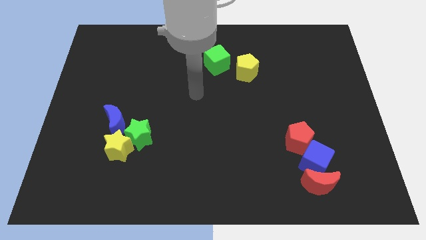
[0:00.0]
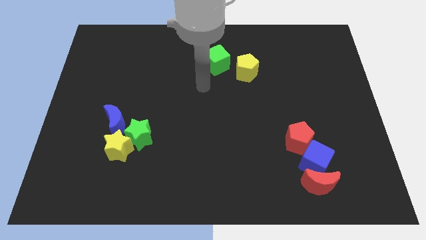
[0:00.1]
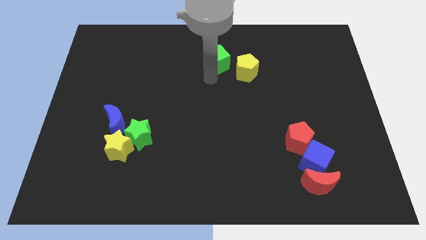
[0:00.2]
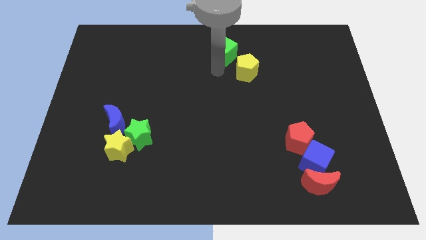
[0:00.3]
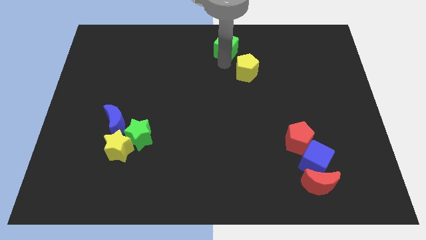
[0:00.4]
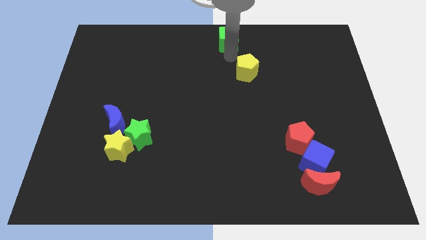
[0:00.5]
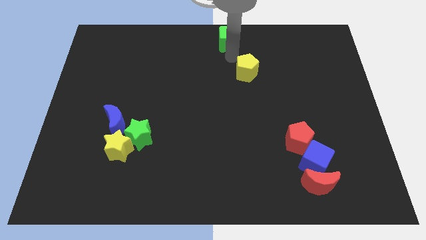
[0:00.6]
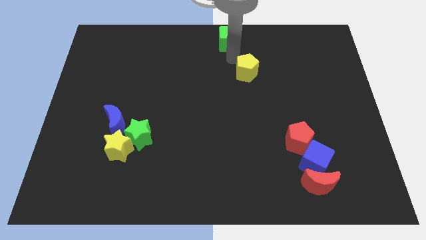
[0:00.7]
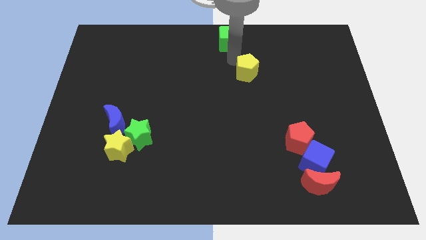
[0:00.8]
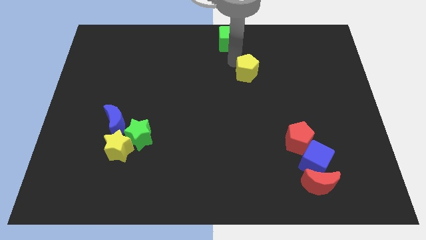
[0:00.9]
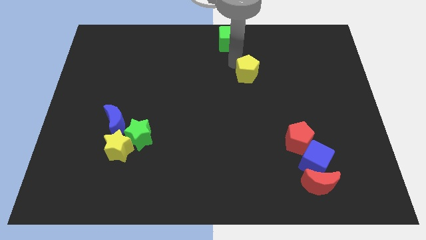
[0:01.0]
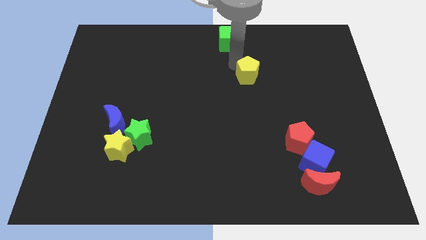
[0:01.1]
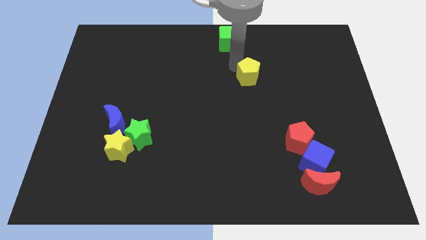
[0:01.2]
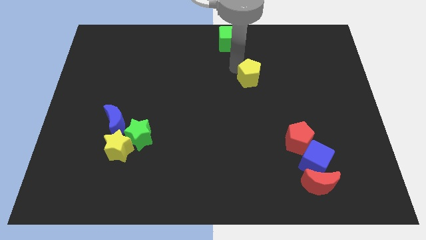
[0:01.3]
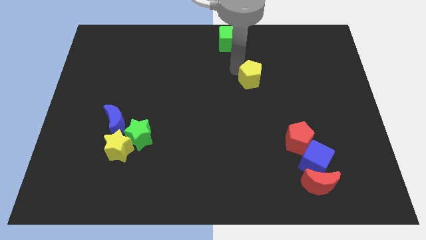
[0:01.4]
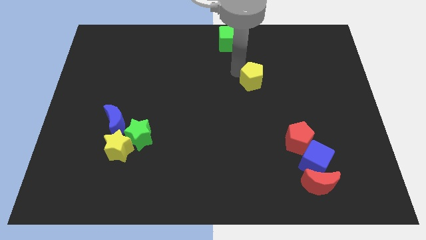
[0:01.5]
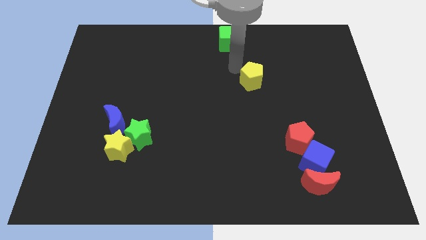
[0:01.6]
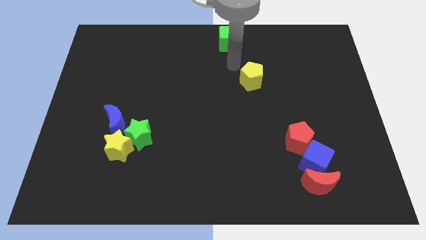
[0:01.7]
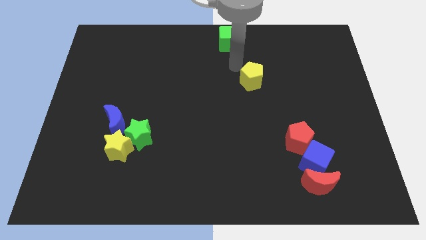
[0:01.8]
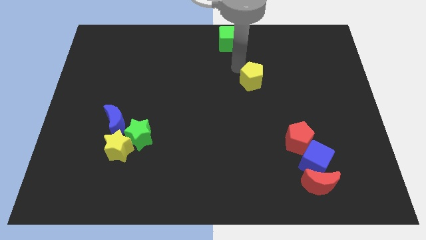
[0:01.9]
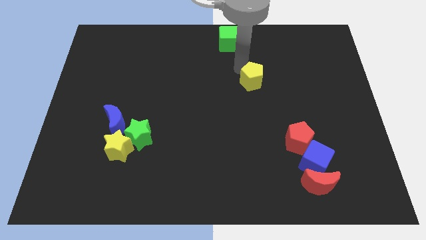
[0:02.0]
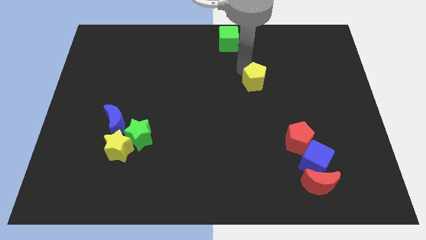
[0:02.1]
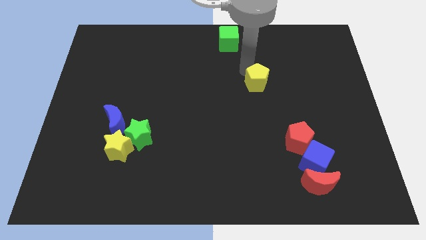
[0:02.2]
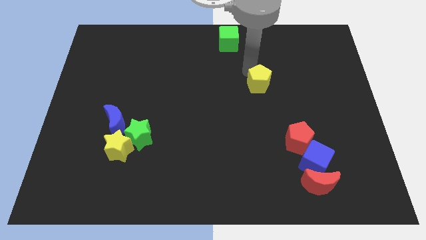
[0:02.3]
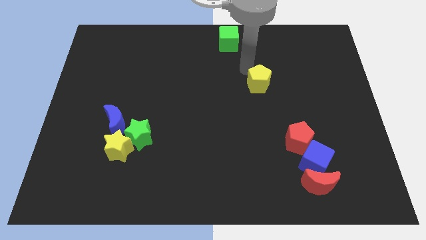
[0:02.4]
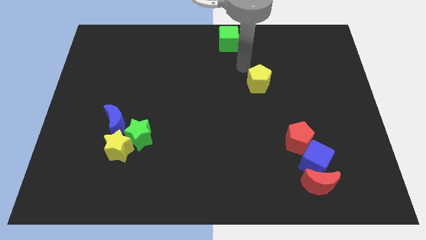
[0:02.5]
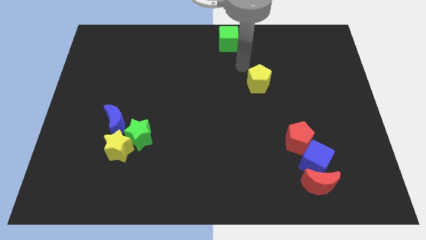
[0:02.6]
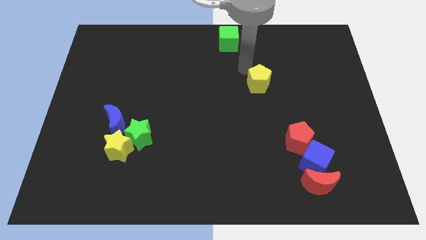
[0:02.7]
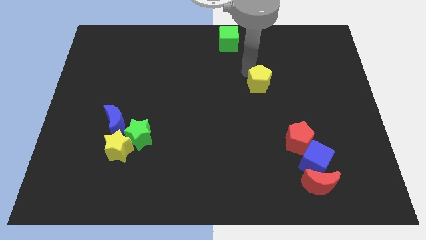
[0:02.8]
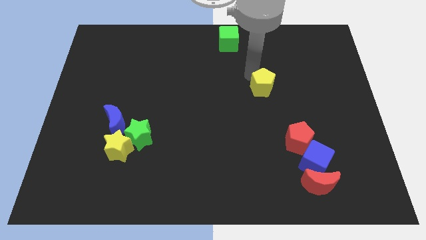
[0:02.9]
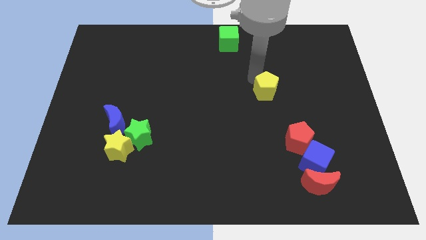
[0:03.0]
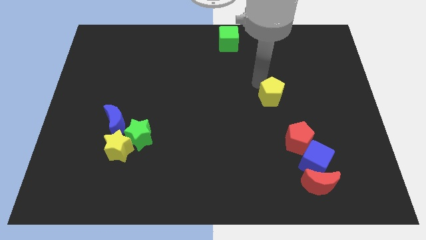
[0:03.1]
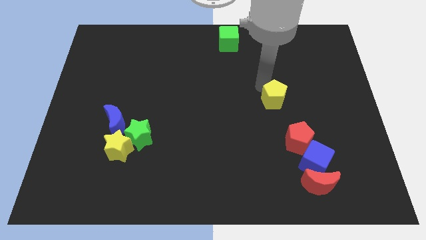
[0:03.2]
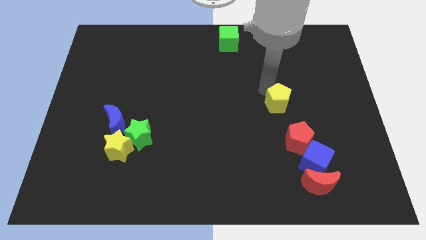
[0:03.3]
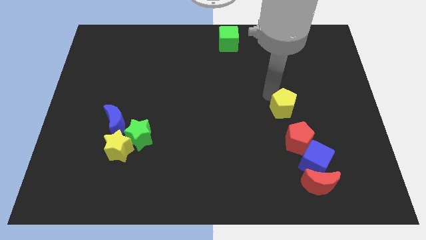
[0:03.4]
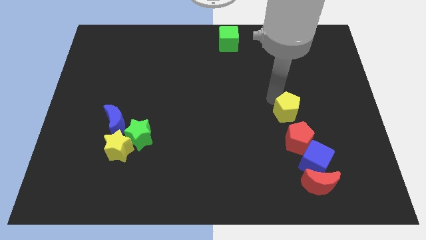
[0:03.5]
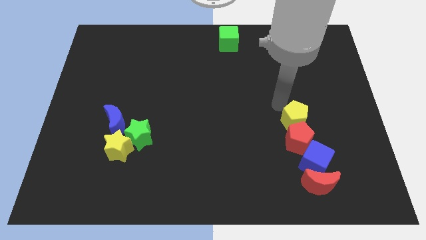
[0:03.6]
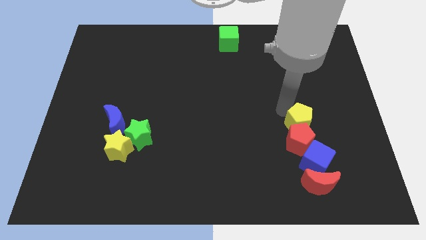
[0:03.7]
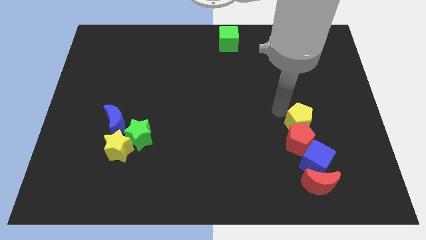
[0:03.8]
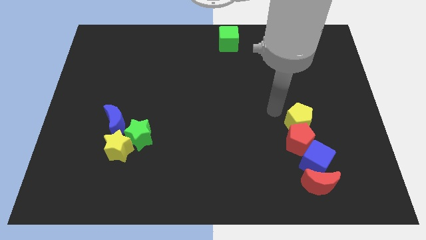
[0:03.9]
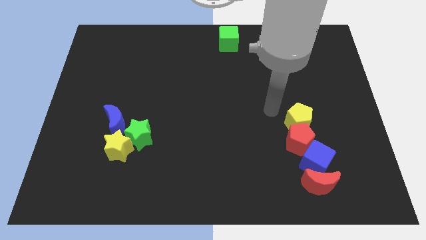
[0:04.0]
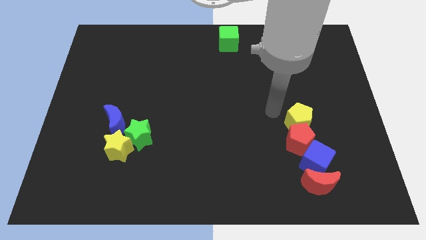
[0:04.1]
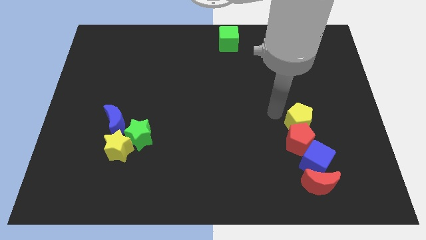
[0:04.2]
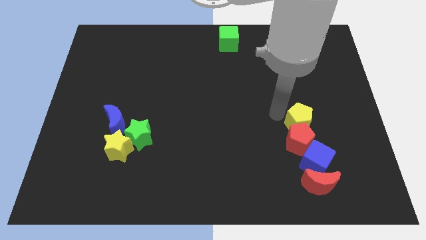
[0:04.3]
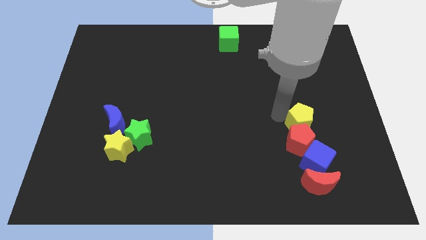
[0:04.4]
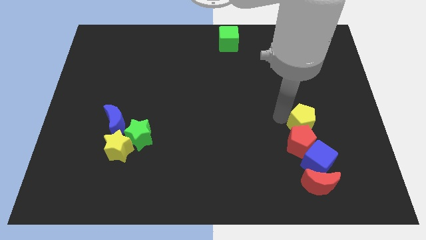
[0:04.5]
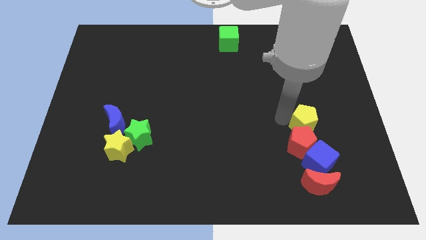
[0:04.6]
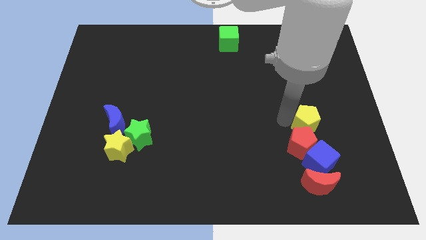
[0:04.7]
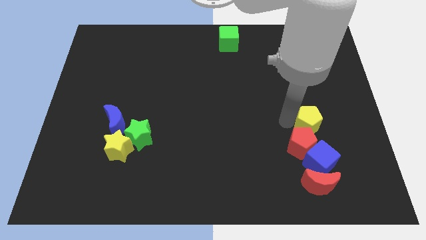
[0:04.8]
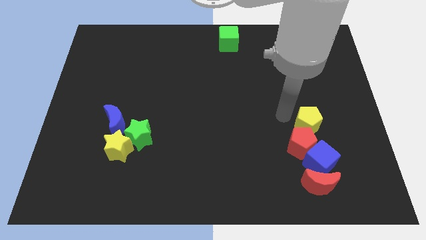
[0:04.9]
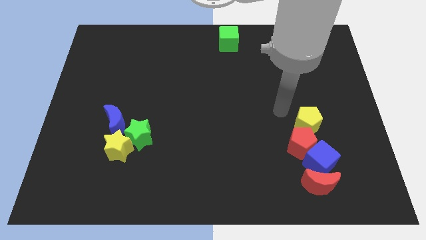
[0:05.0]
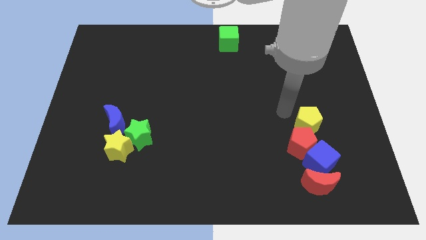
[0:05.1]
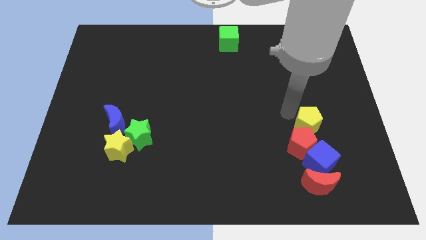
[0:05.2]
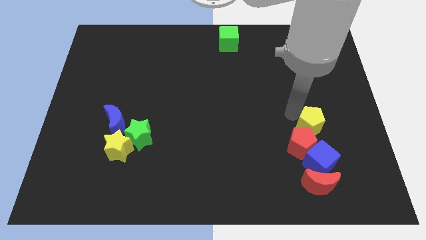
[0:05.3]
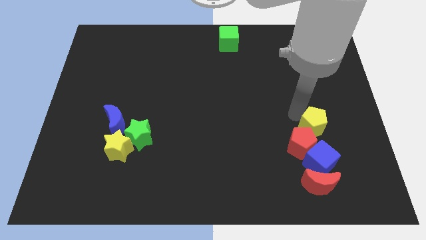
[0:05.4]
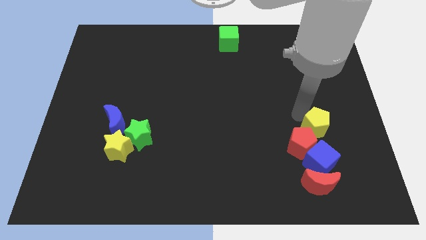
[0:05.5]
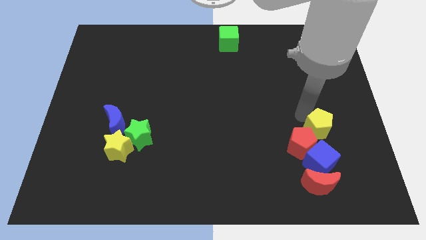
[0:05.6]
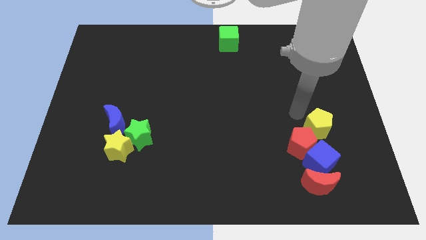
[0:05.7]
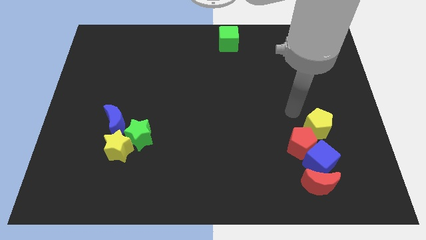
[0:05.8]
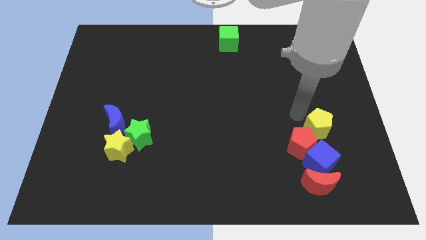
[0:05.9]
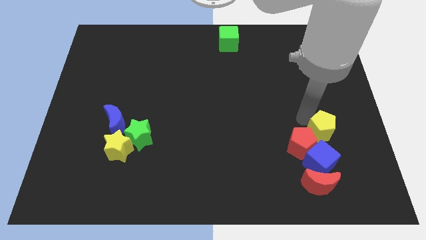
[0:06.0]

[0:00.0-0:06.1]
put the yellow pentagon diagonally up and to the right of the blue cube
